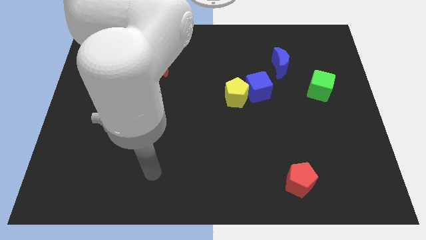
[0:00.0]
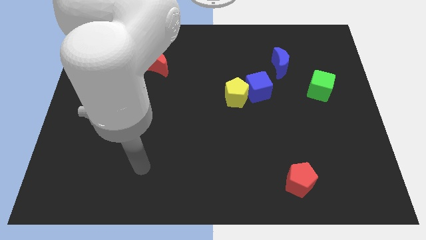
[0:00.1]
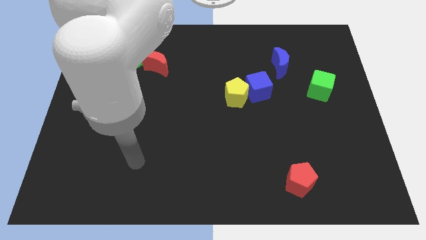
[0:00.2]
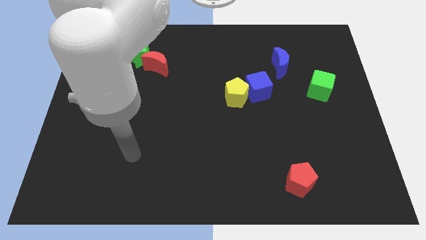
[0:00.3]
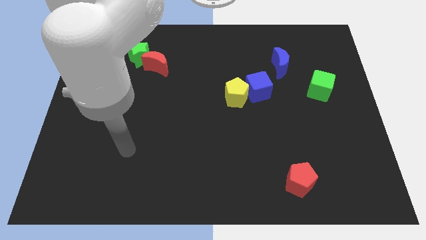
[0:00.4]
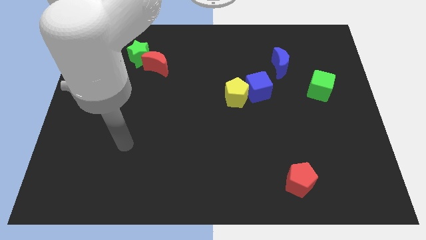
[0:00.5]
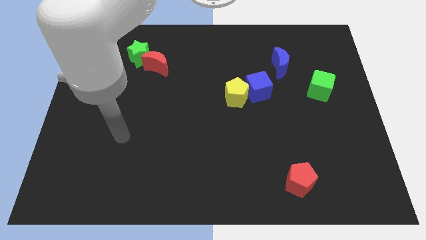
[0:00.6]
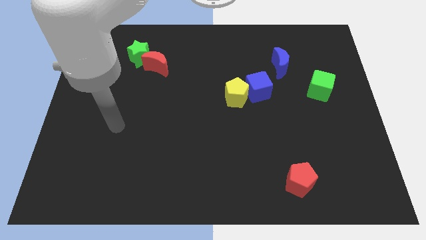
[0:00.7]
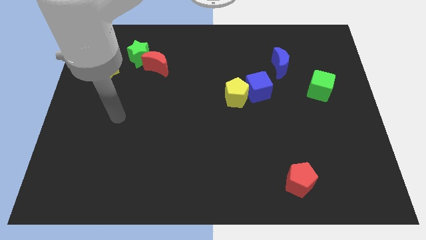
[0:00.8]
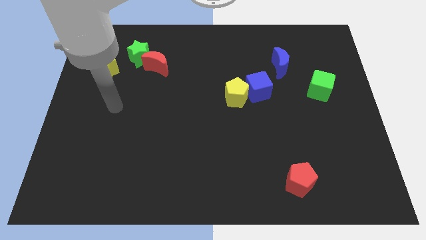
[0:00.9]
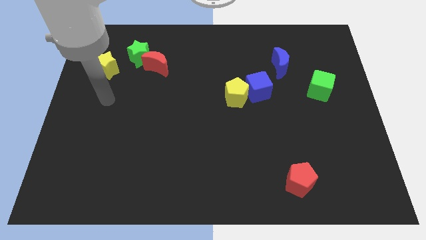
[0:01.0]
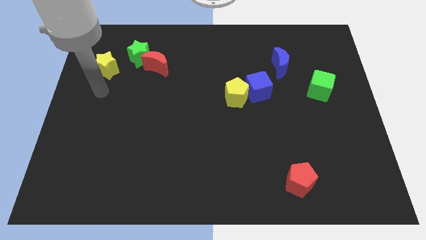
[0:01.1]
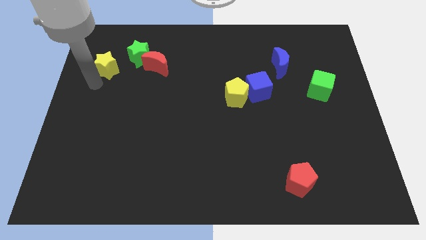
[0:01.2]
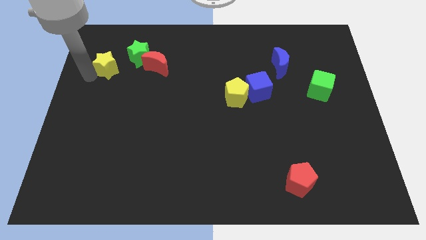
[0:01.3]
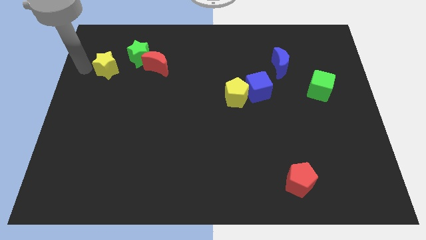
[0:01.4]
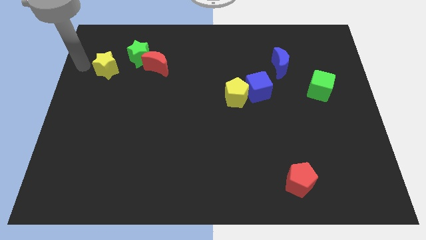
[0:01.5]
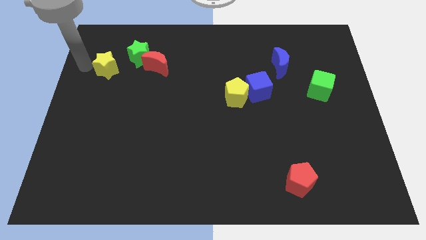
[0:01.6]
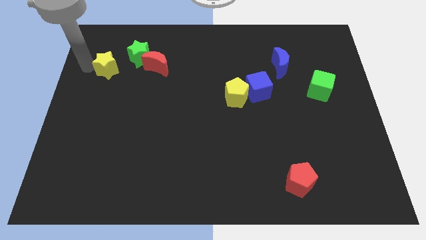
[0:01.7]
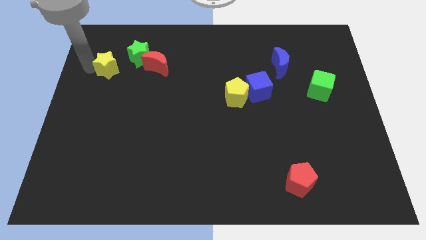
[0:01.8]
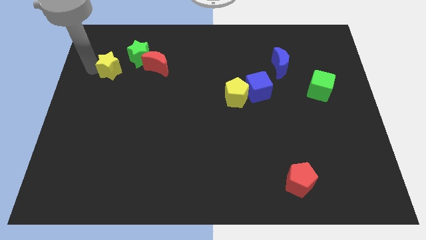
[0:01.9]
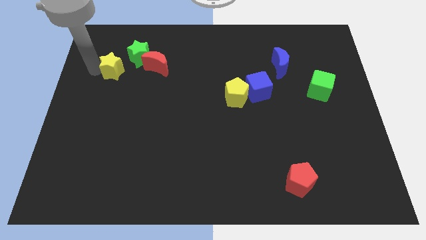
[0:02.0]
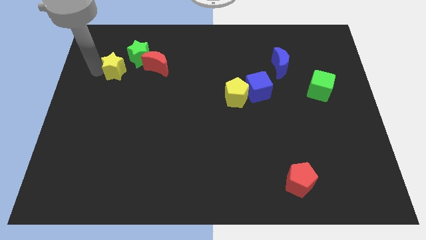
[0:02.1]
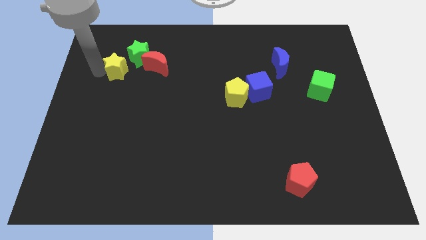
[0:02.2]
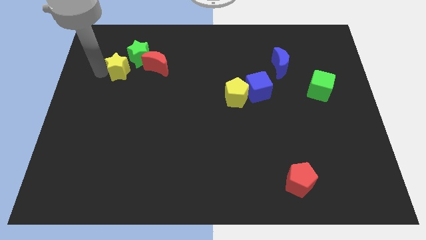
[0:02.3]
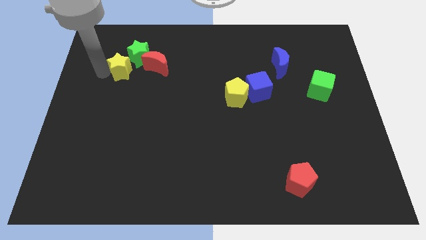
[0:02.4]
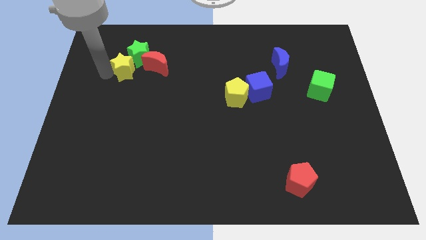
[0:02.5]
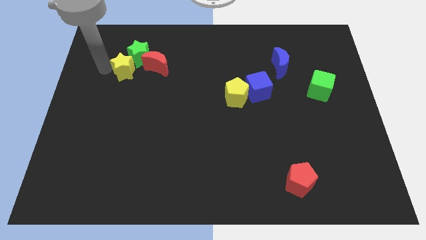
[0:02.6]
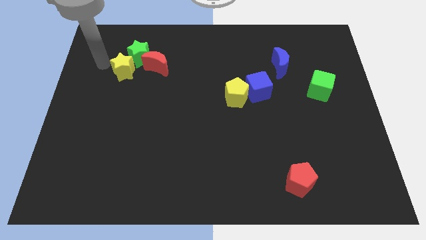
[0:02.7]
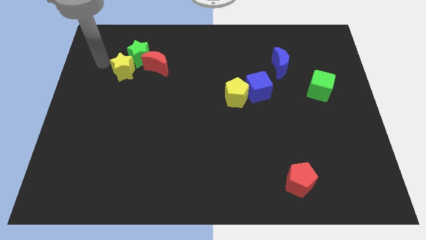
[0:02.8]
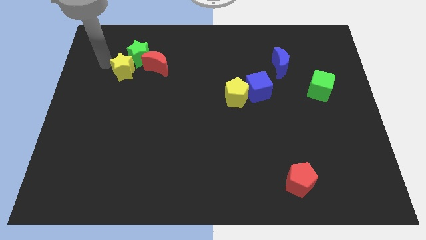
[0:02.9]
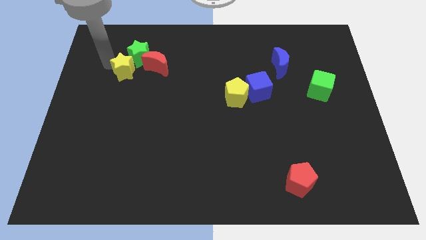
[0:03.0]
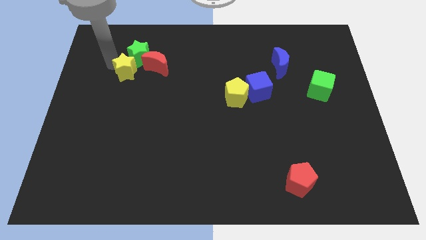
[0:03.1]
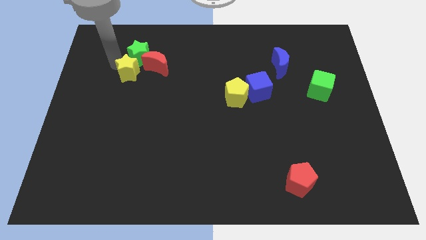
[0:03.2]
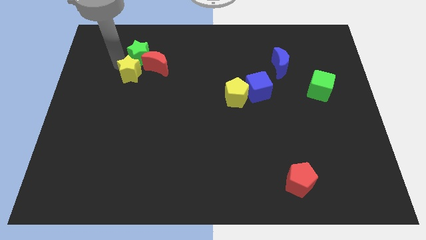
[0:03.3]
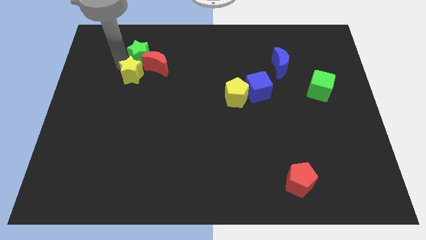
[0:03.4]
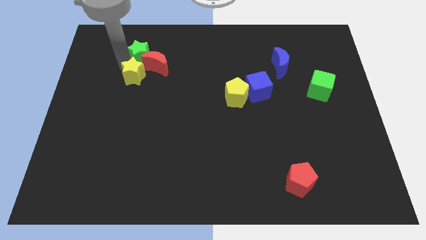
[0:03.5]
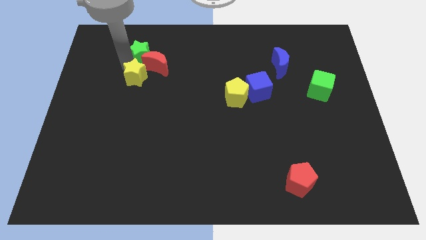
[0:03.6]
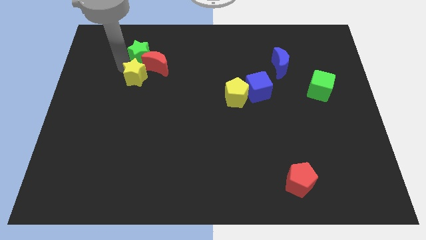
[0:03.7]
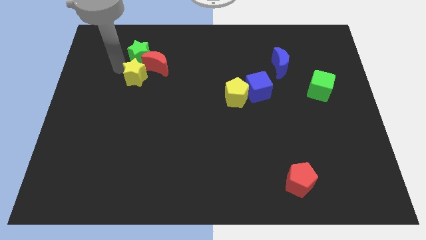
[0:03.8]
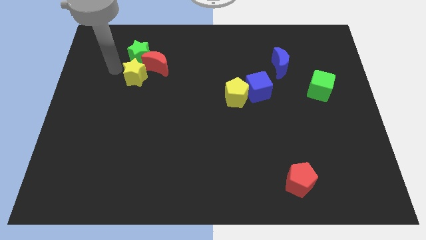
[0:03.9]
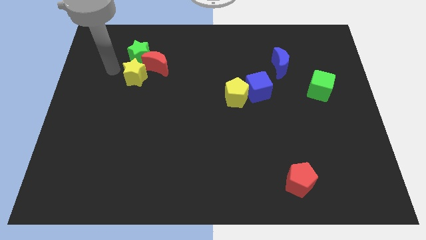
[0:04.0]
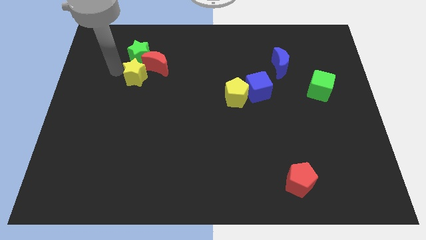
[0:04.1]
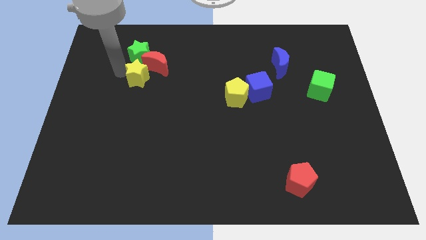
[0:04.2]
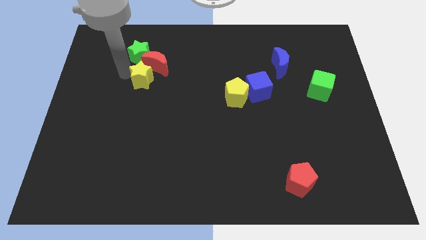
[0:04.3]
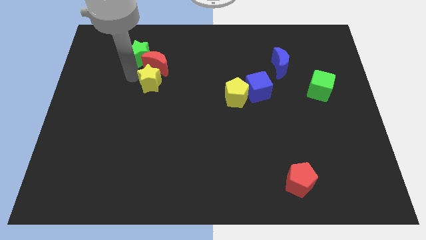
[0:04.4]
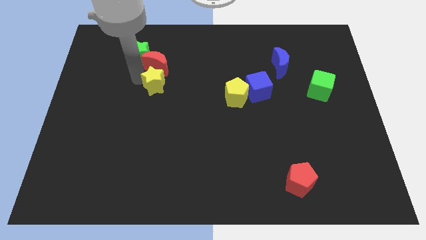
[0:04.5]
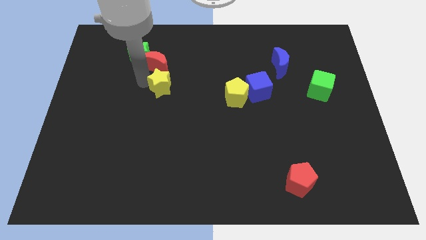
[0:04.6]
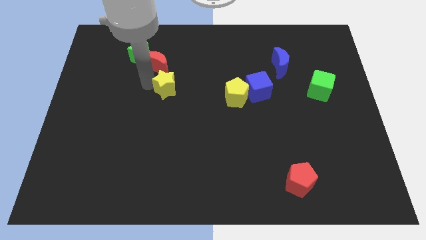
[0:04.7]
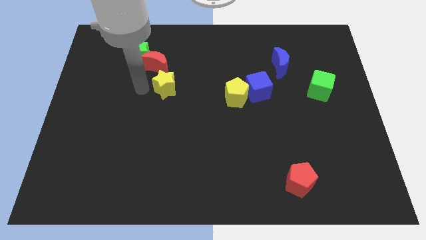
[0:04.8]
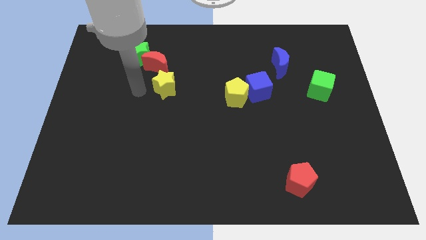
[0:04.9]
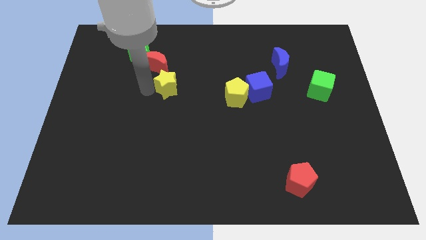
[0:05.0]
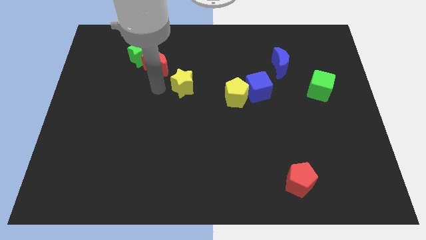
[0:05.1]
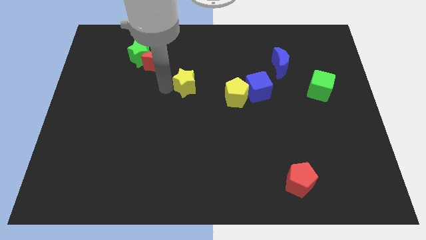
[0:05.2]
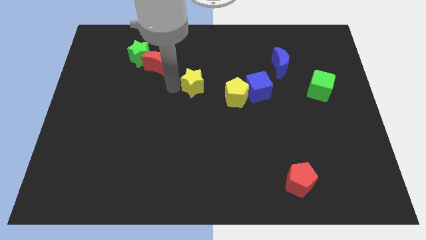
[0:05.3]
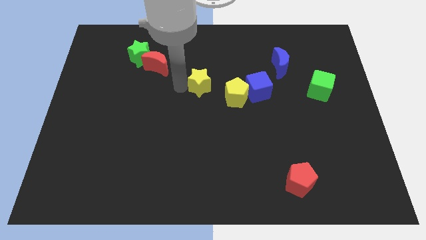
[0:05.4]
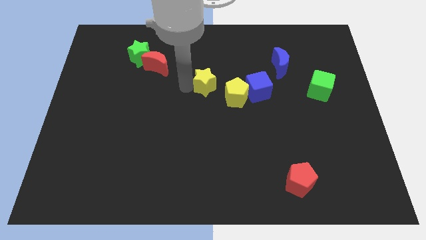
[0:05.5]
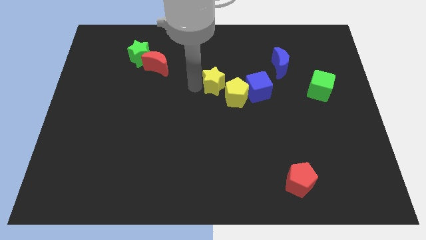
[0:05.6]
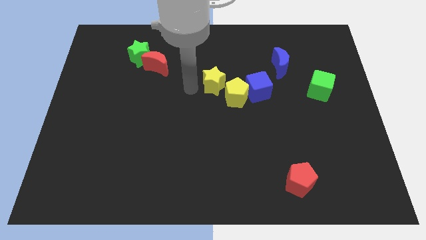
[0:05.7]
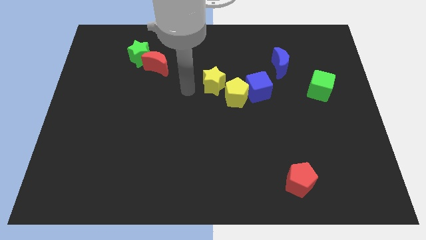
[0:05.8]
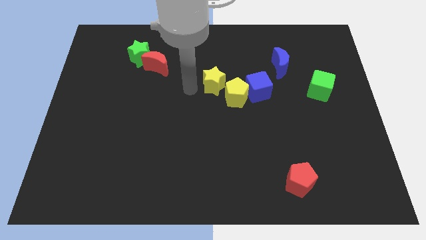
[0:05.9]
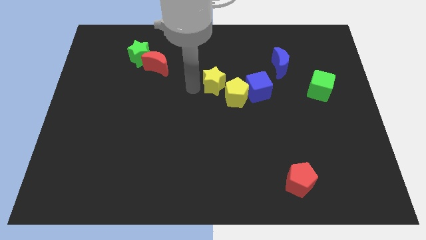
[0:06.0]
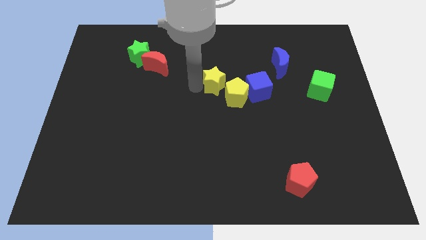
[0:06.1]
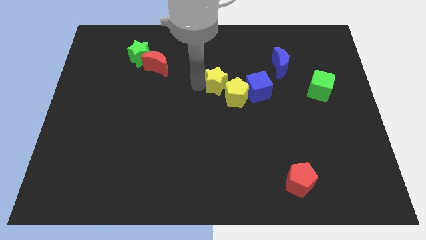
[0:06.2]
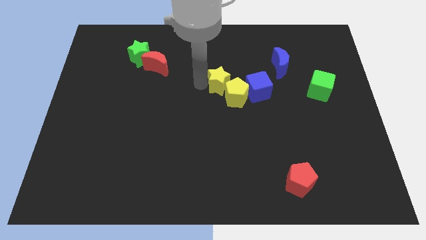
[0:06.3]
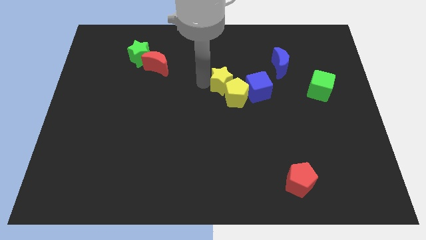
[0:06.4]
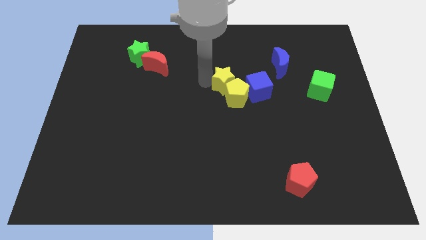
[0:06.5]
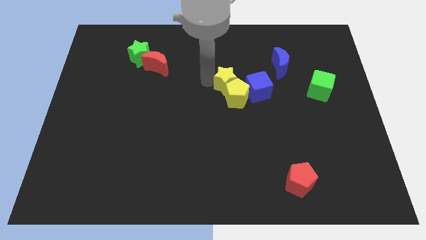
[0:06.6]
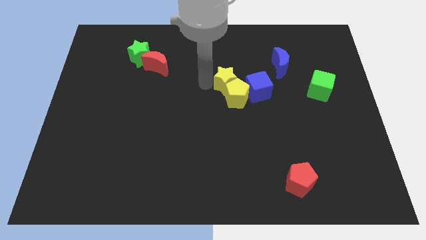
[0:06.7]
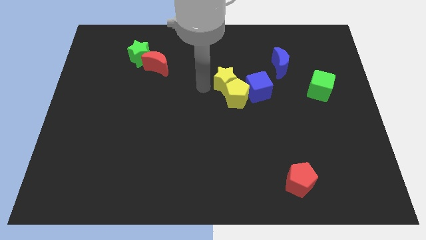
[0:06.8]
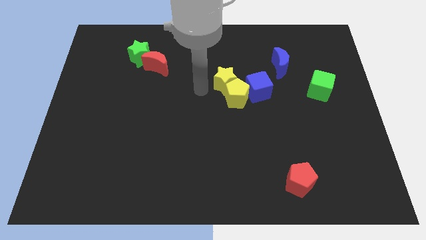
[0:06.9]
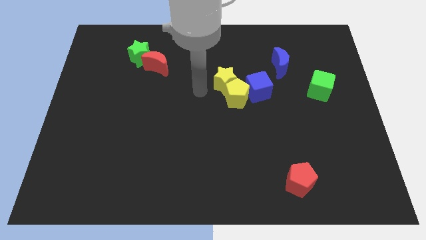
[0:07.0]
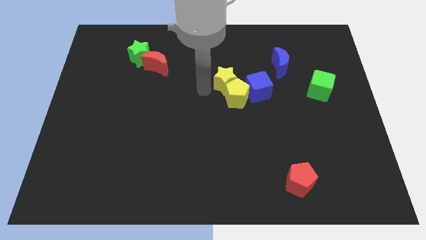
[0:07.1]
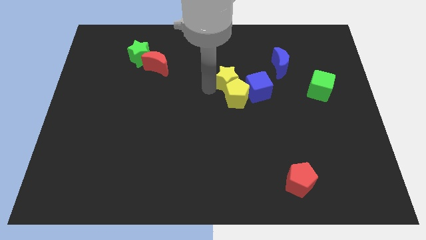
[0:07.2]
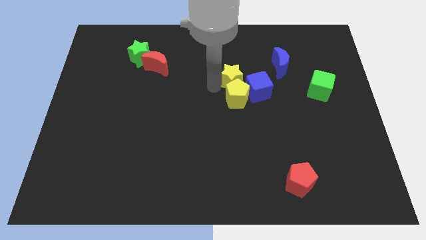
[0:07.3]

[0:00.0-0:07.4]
slide the yellow star to the top right side of the yellow pentagon
